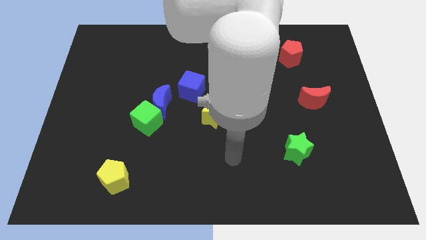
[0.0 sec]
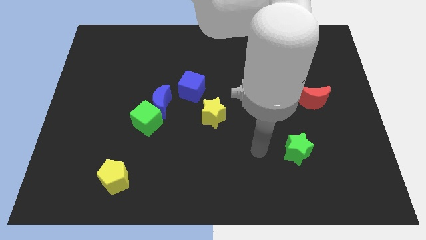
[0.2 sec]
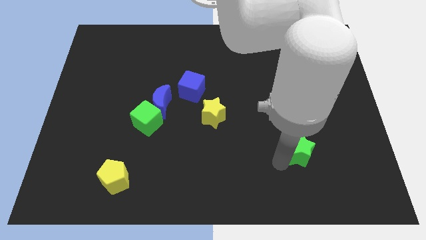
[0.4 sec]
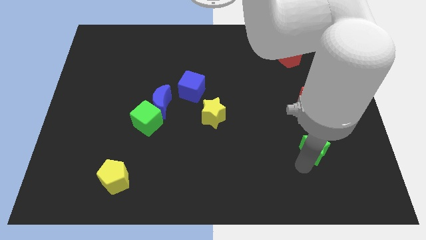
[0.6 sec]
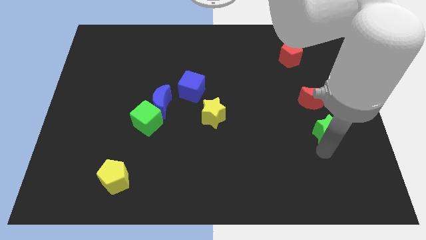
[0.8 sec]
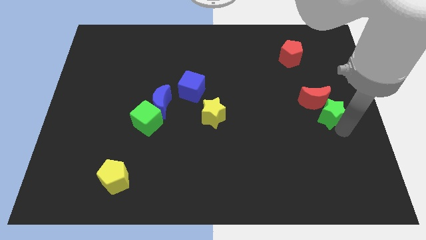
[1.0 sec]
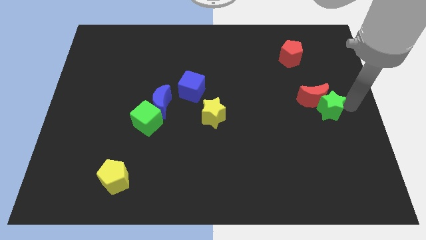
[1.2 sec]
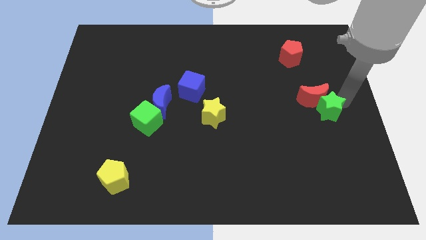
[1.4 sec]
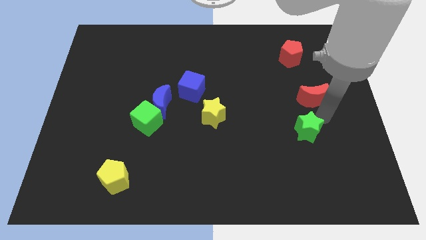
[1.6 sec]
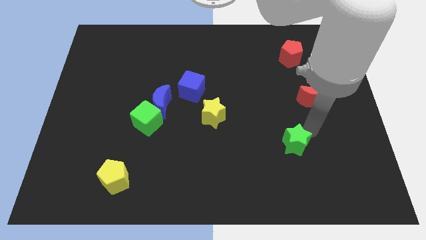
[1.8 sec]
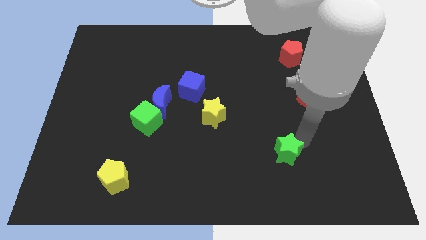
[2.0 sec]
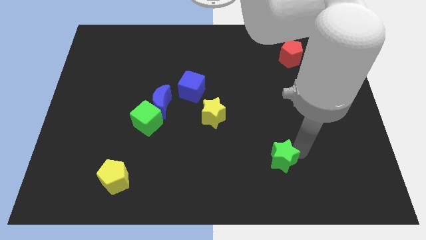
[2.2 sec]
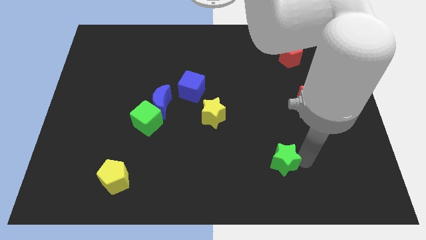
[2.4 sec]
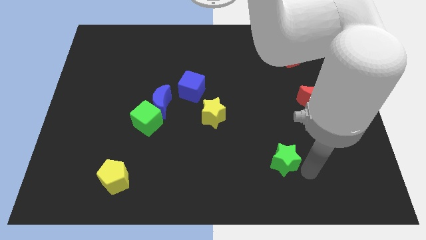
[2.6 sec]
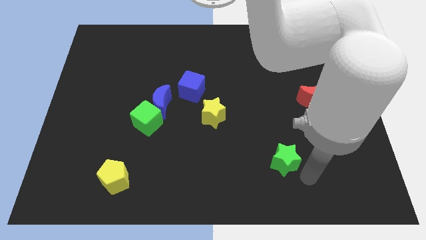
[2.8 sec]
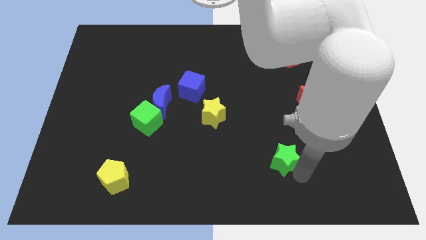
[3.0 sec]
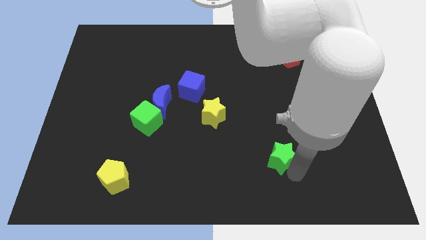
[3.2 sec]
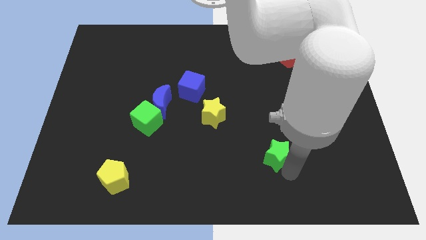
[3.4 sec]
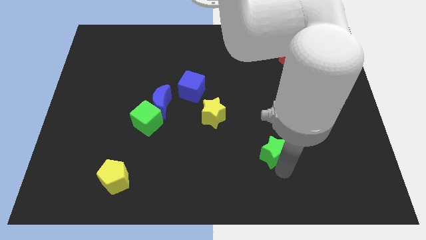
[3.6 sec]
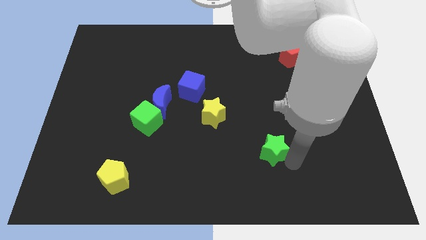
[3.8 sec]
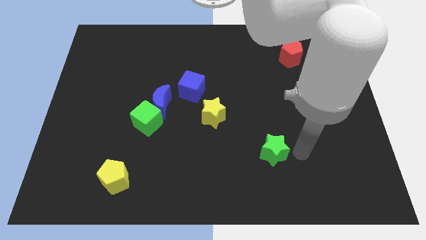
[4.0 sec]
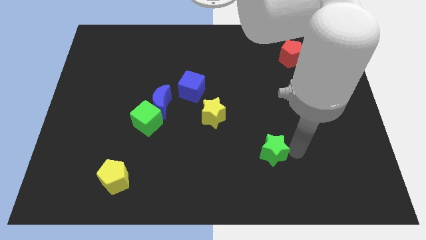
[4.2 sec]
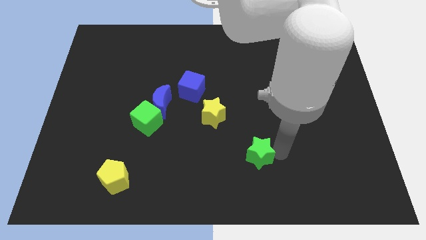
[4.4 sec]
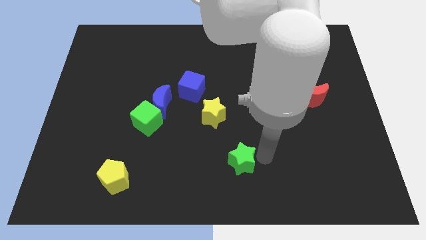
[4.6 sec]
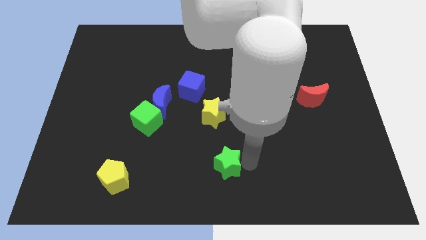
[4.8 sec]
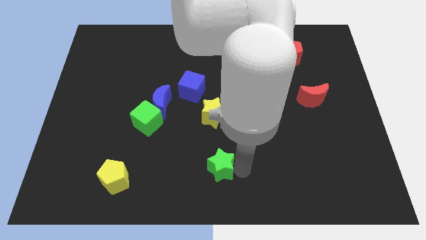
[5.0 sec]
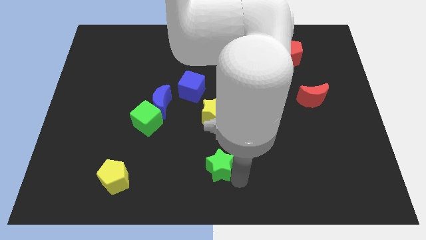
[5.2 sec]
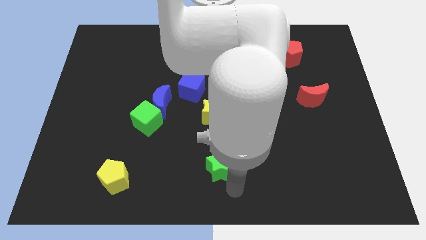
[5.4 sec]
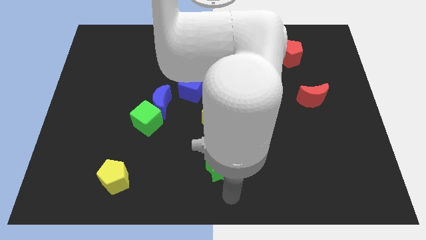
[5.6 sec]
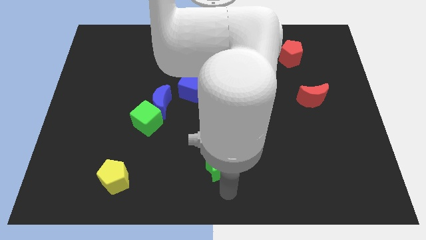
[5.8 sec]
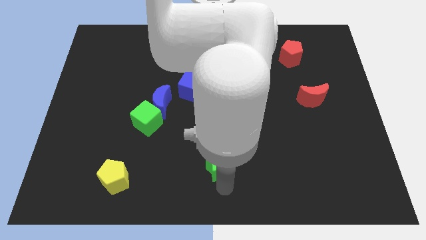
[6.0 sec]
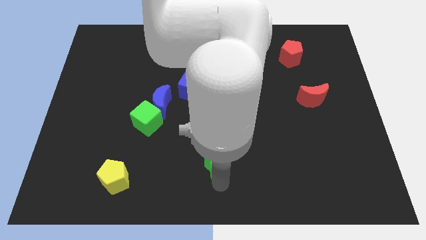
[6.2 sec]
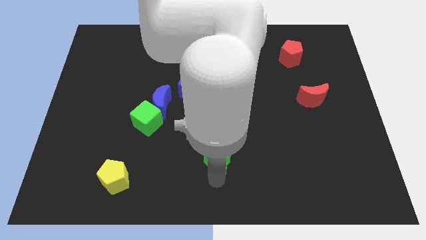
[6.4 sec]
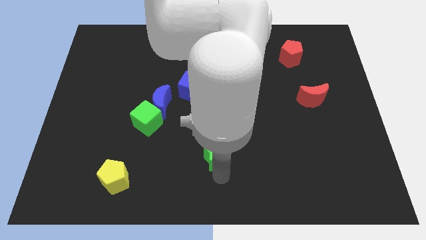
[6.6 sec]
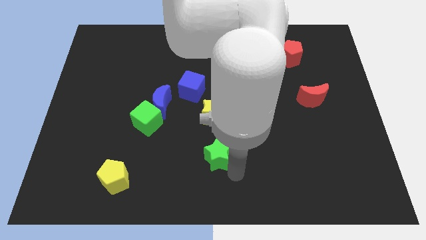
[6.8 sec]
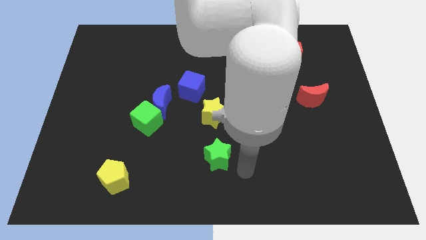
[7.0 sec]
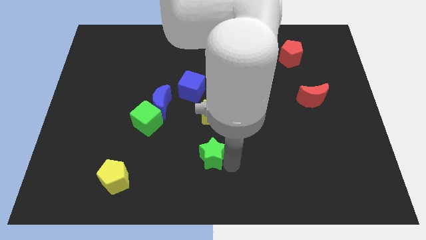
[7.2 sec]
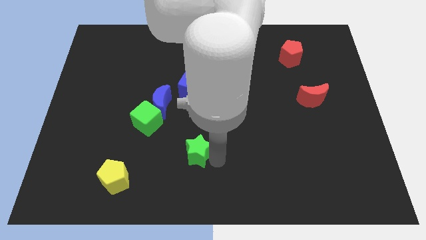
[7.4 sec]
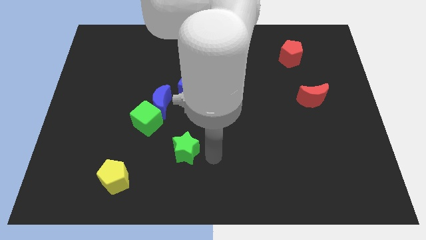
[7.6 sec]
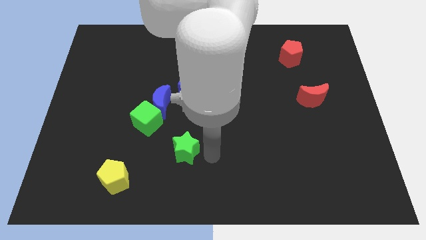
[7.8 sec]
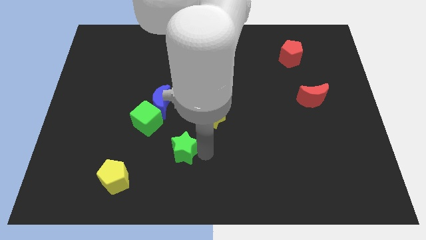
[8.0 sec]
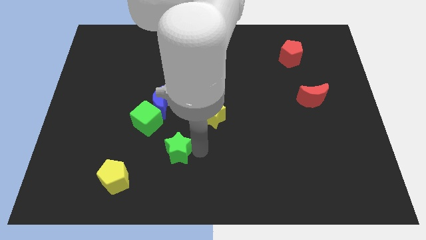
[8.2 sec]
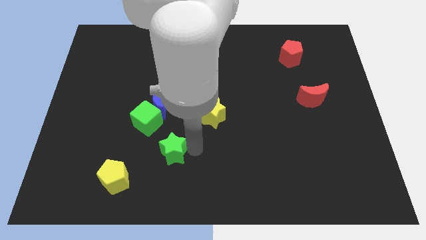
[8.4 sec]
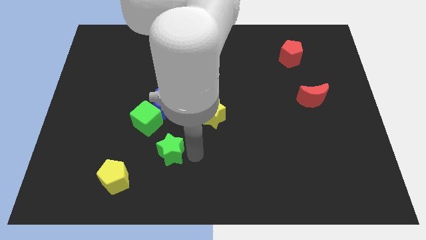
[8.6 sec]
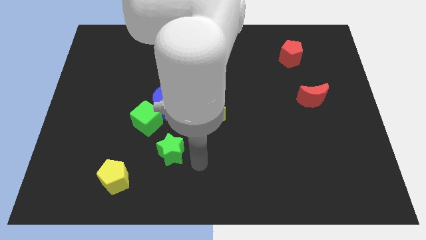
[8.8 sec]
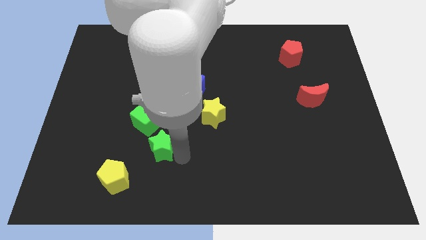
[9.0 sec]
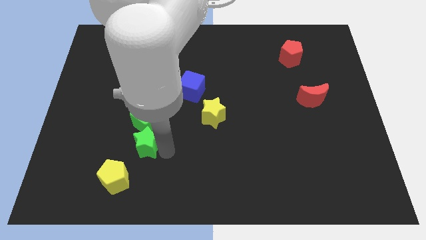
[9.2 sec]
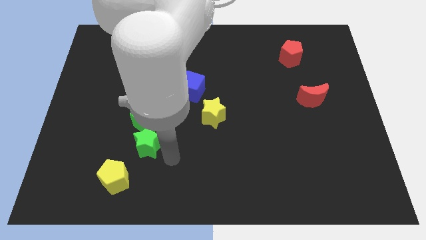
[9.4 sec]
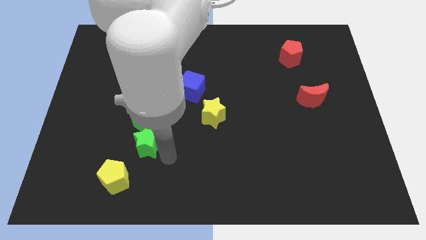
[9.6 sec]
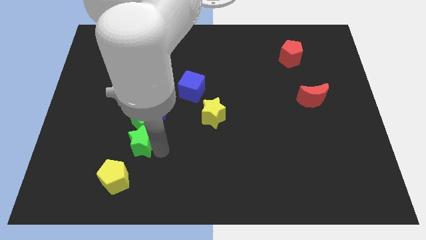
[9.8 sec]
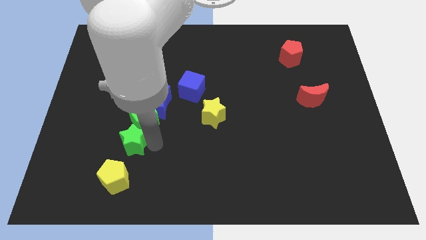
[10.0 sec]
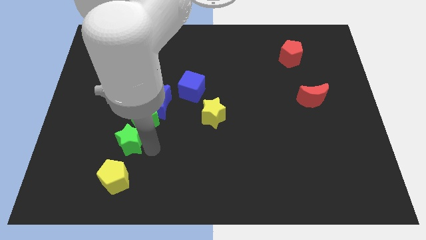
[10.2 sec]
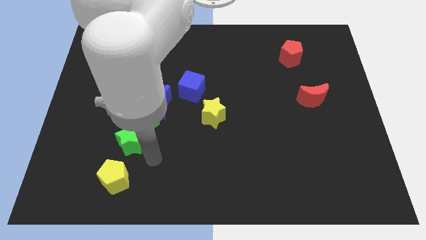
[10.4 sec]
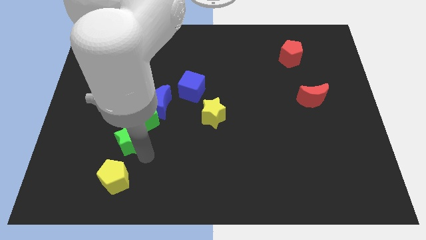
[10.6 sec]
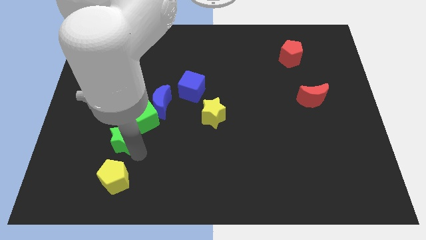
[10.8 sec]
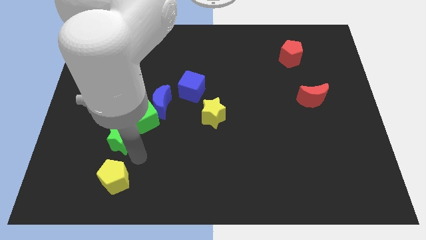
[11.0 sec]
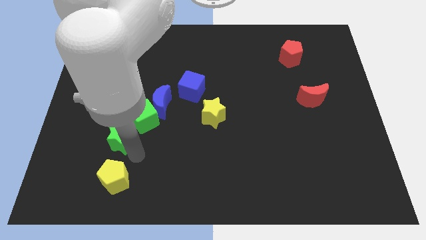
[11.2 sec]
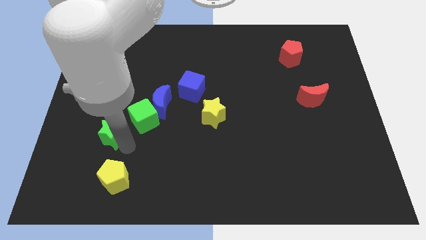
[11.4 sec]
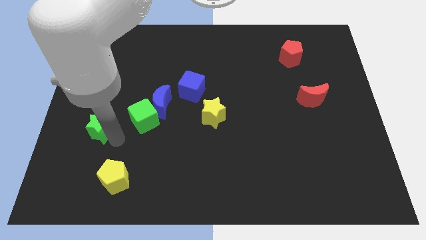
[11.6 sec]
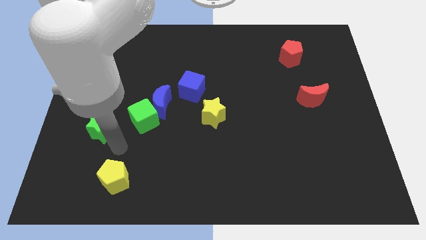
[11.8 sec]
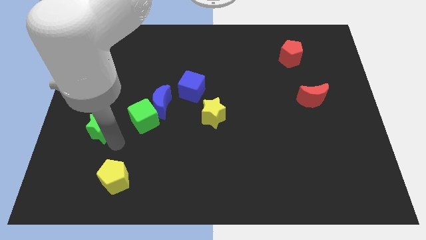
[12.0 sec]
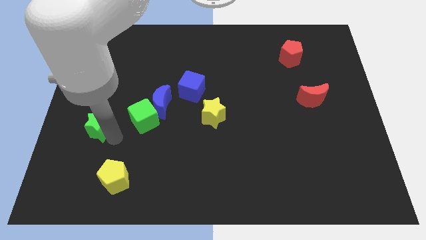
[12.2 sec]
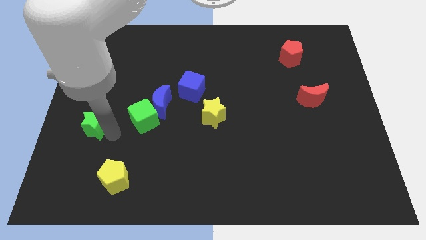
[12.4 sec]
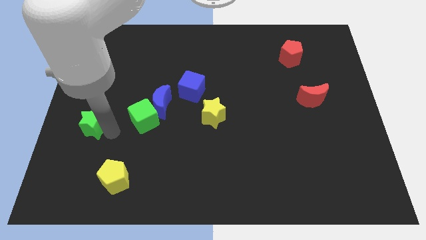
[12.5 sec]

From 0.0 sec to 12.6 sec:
put the green star to the center left
